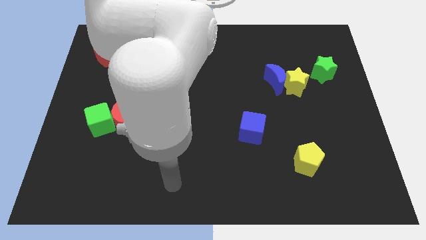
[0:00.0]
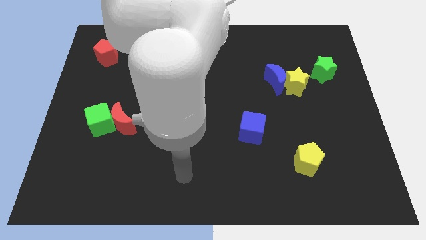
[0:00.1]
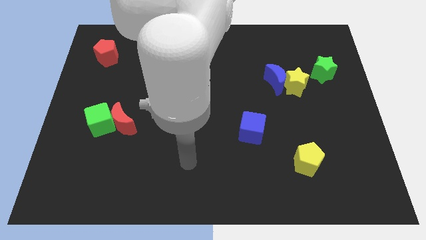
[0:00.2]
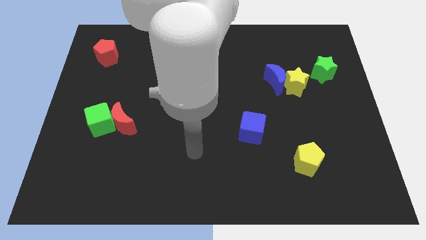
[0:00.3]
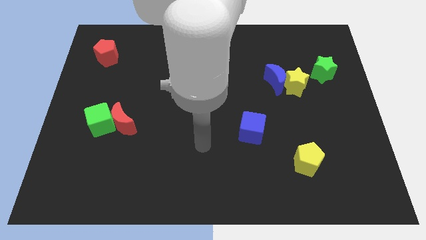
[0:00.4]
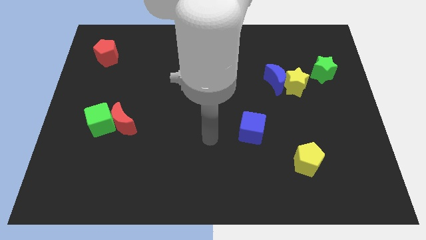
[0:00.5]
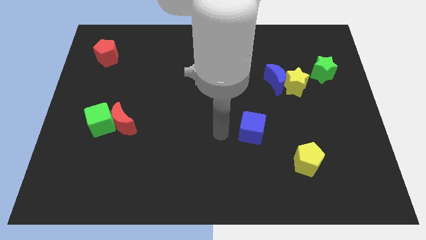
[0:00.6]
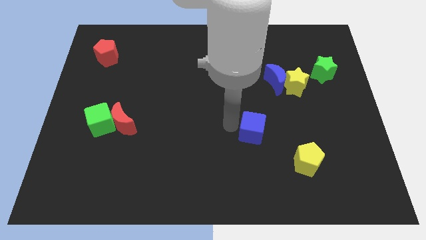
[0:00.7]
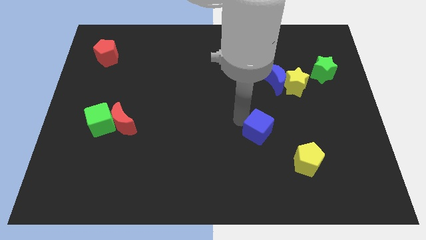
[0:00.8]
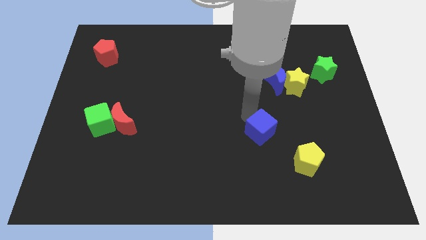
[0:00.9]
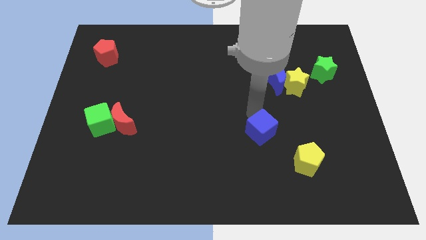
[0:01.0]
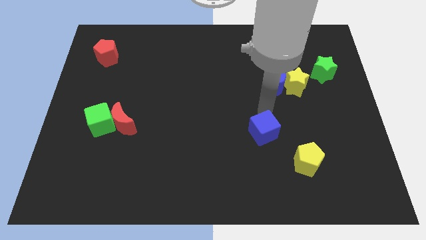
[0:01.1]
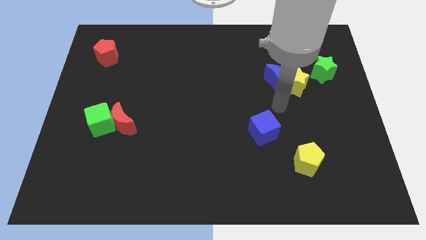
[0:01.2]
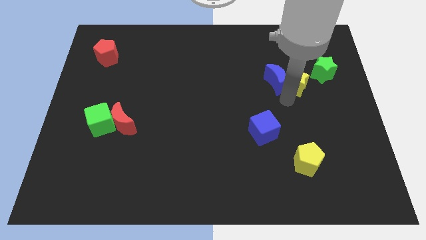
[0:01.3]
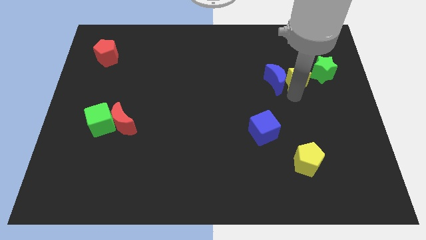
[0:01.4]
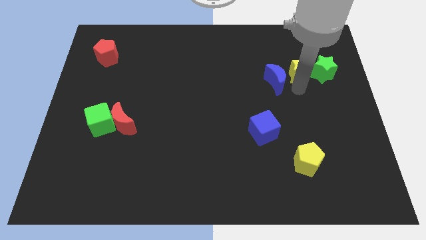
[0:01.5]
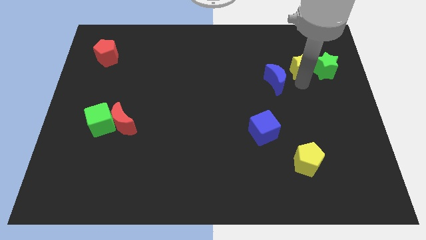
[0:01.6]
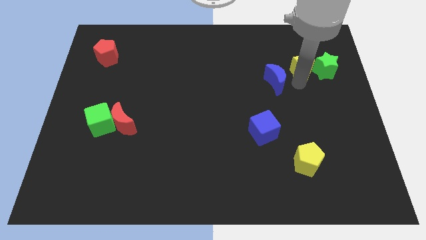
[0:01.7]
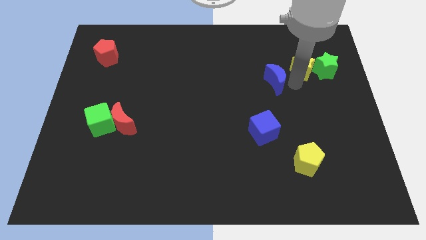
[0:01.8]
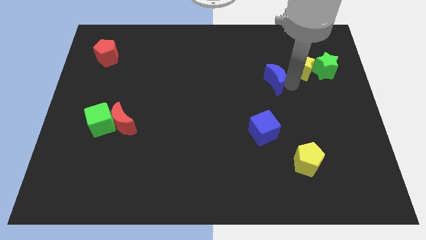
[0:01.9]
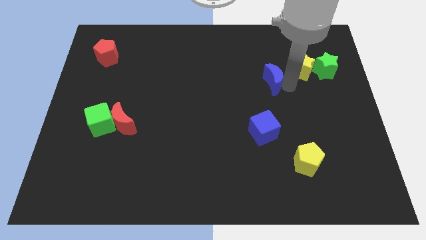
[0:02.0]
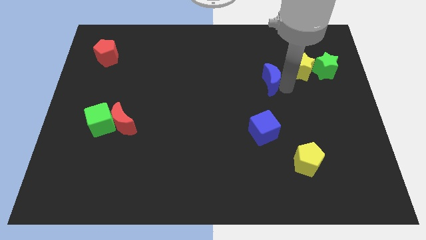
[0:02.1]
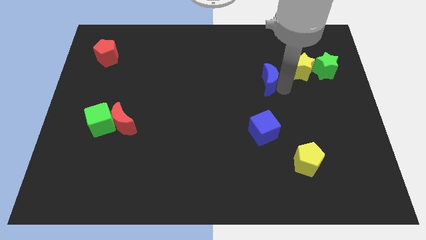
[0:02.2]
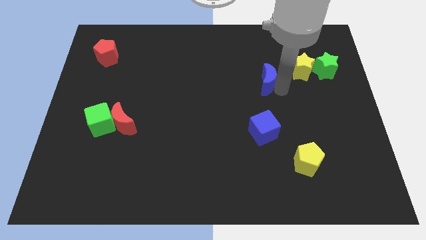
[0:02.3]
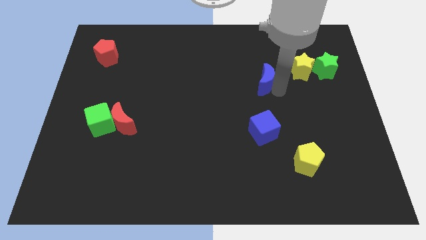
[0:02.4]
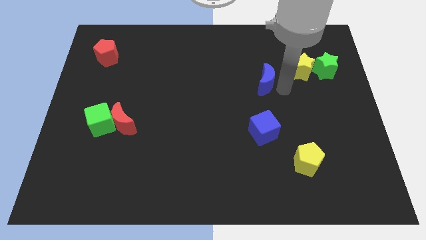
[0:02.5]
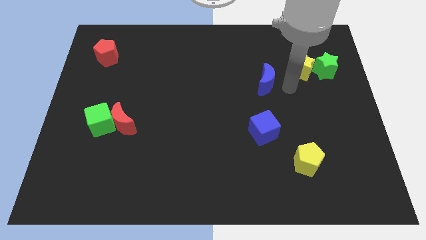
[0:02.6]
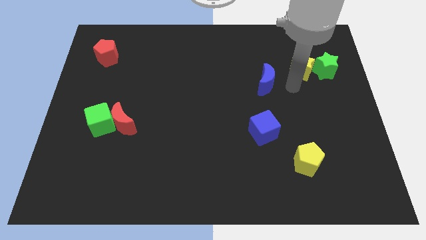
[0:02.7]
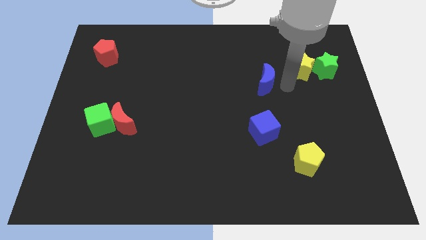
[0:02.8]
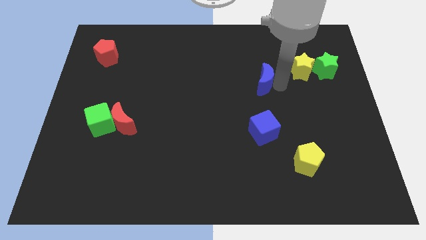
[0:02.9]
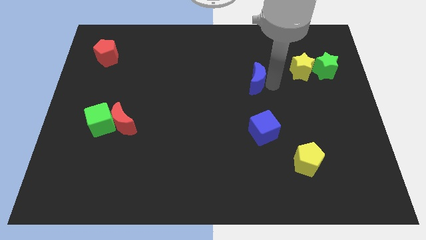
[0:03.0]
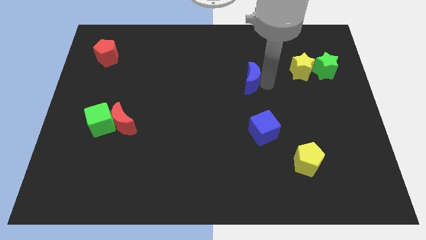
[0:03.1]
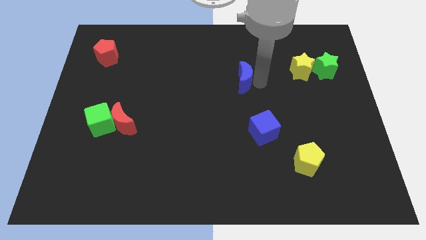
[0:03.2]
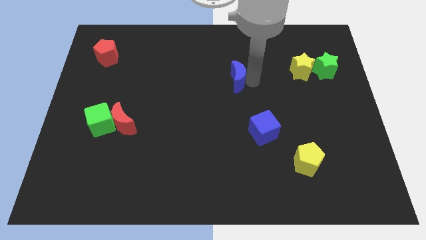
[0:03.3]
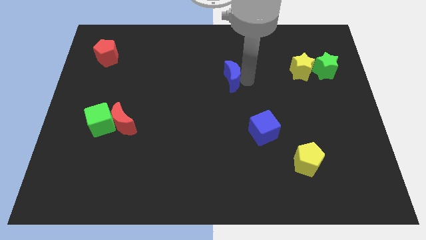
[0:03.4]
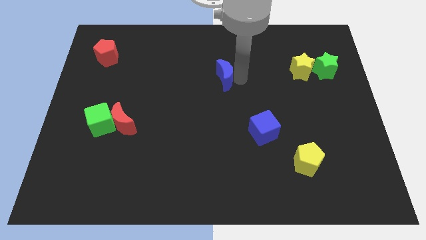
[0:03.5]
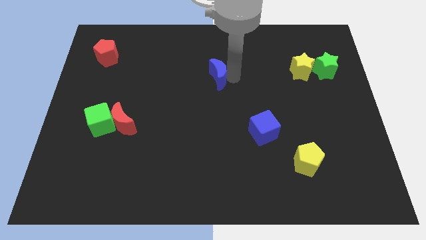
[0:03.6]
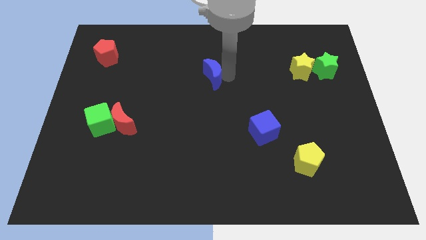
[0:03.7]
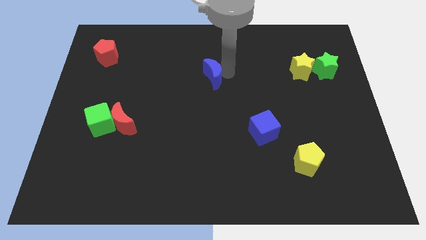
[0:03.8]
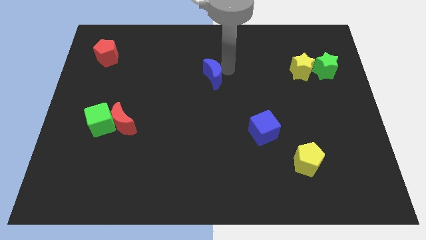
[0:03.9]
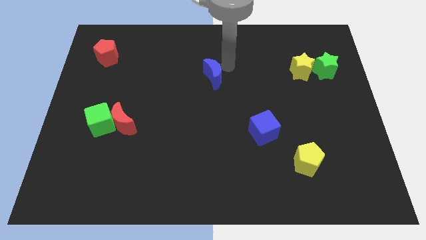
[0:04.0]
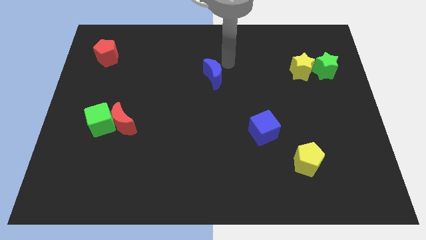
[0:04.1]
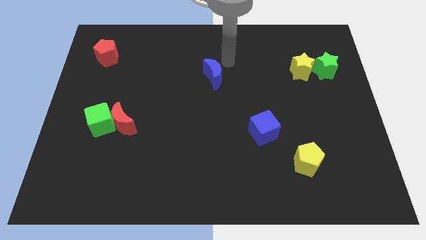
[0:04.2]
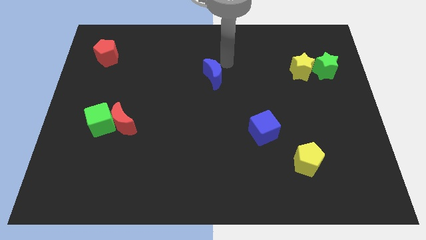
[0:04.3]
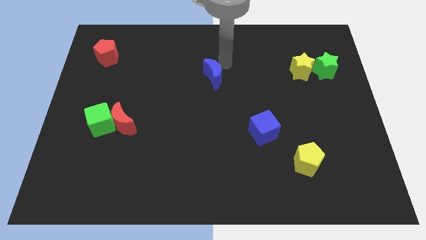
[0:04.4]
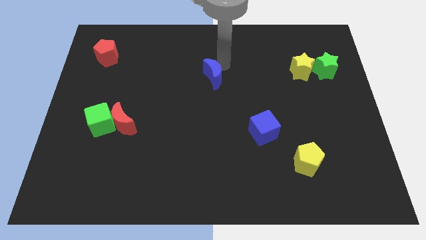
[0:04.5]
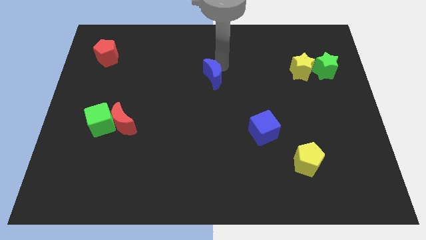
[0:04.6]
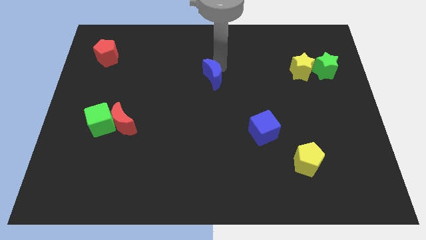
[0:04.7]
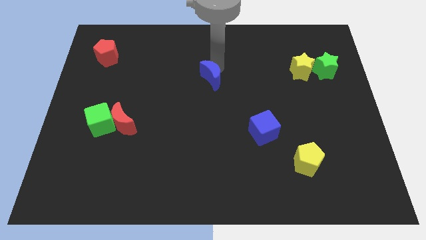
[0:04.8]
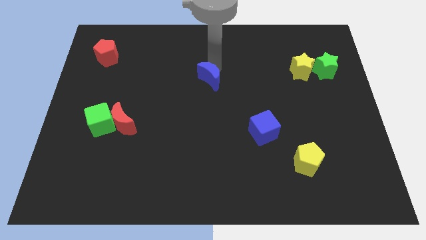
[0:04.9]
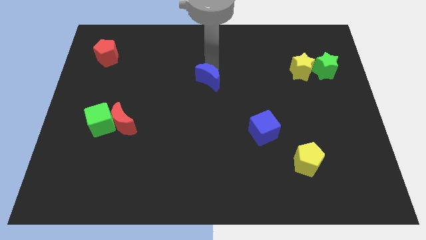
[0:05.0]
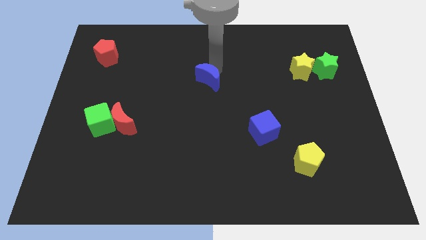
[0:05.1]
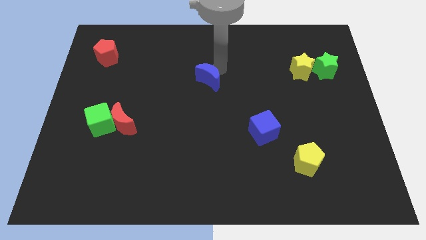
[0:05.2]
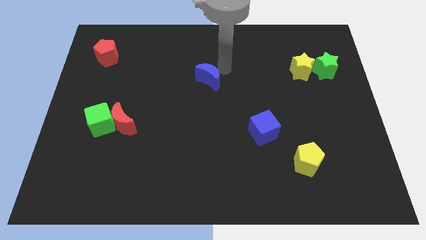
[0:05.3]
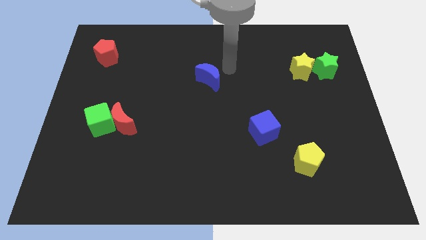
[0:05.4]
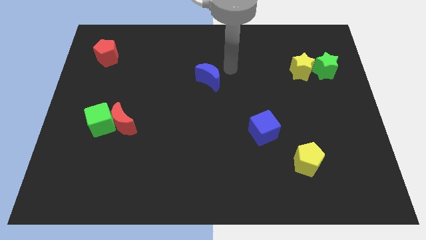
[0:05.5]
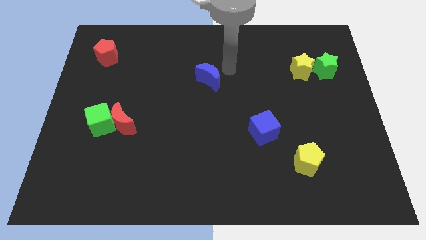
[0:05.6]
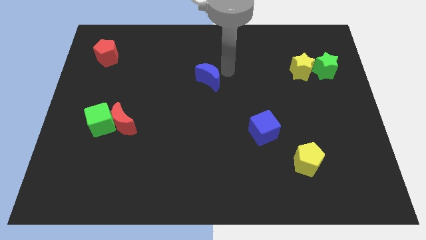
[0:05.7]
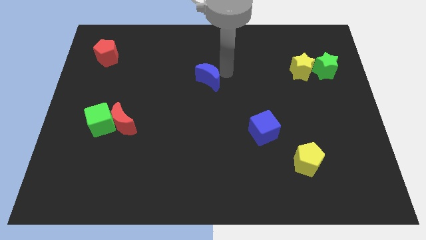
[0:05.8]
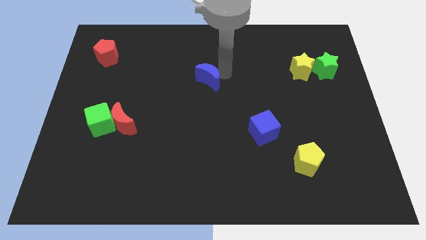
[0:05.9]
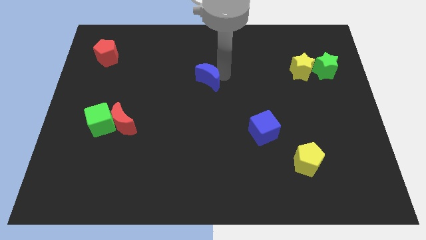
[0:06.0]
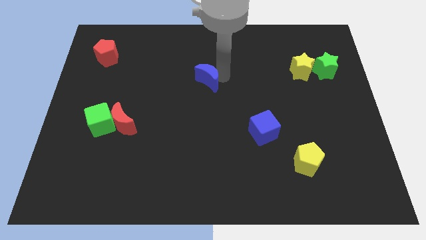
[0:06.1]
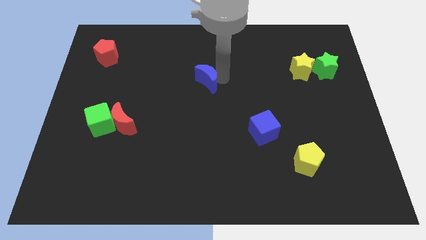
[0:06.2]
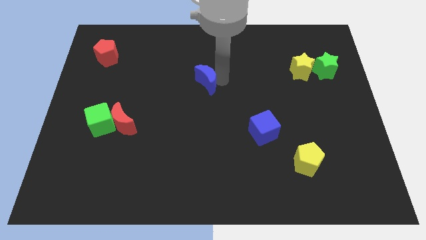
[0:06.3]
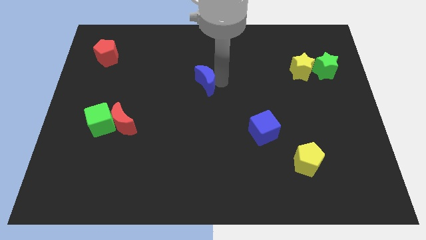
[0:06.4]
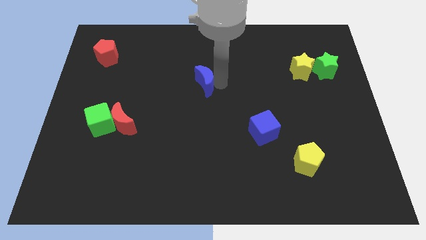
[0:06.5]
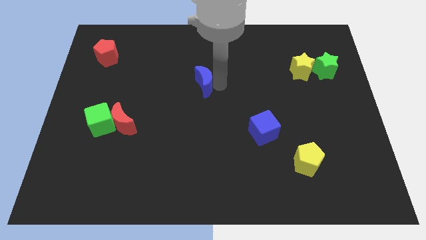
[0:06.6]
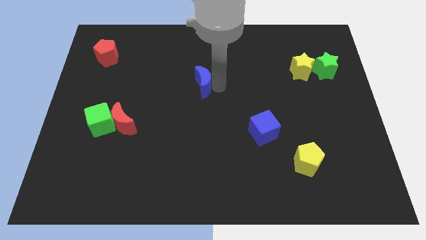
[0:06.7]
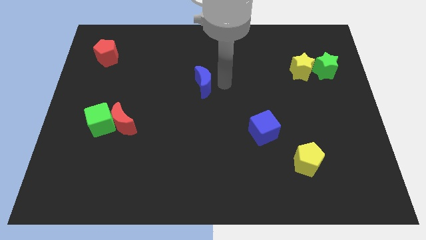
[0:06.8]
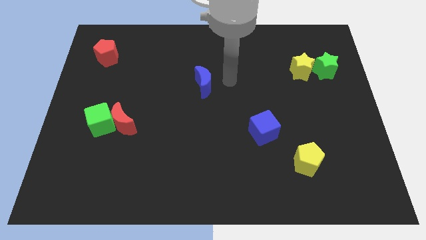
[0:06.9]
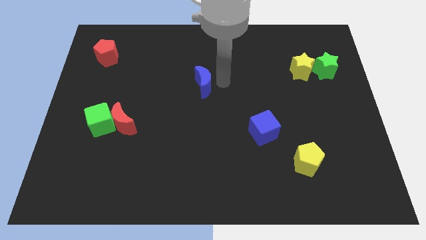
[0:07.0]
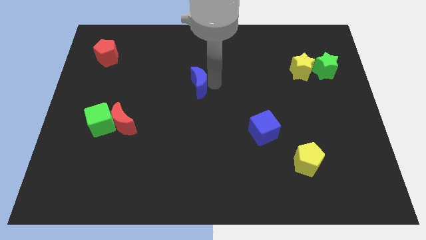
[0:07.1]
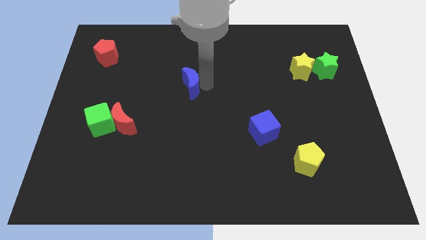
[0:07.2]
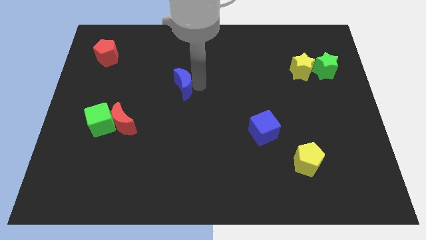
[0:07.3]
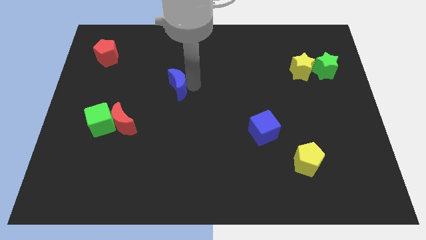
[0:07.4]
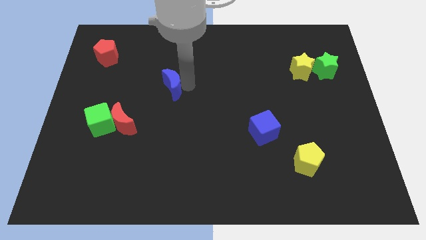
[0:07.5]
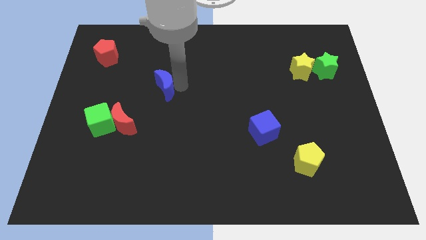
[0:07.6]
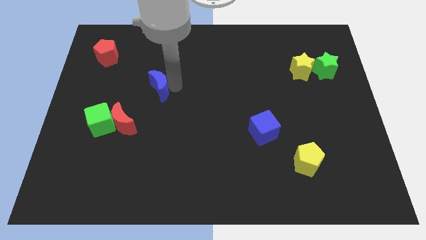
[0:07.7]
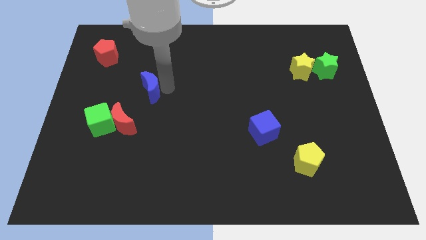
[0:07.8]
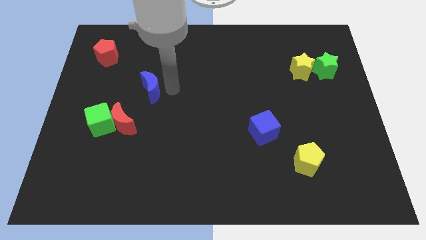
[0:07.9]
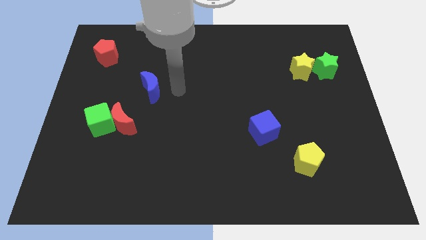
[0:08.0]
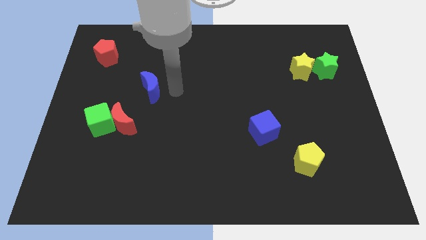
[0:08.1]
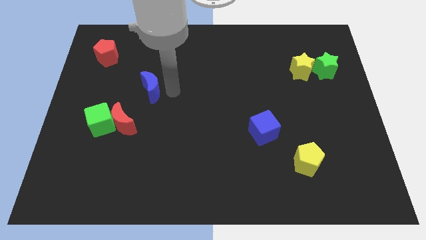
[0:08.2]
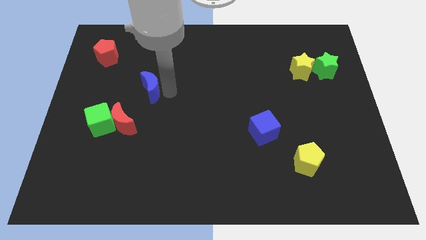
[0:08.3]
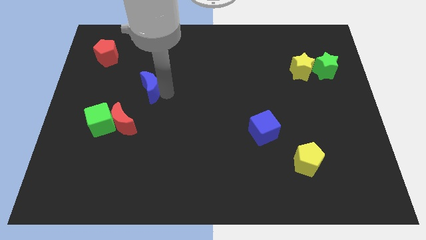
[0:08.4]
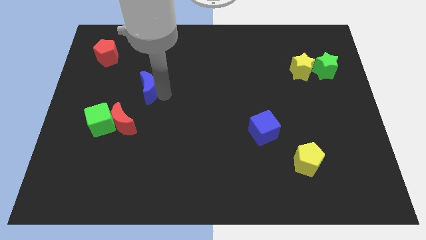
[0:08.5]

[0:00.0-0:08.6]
move the blue moon above the red moon
